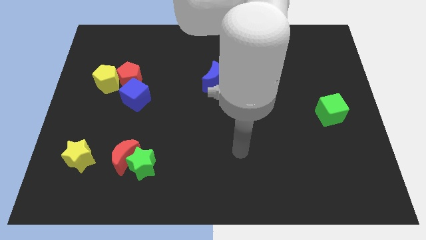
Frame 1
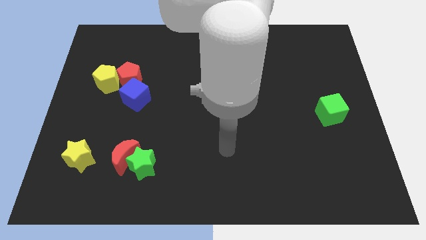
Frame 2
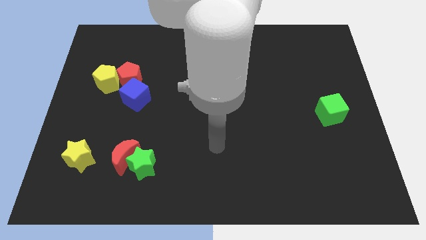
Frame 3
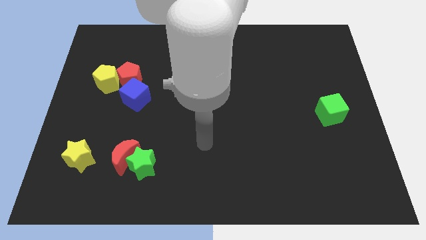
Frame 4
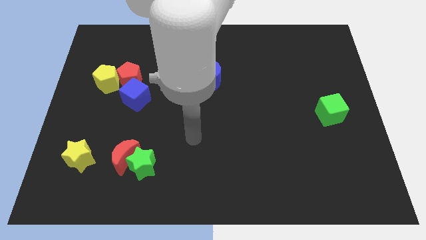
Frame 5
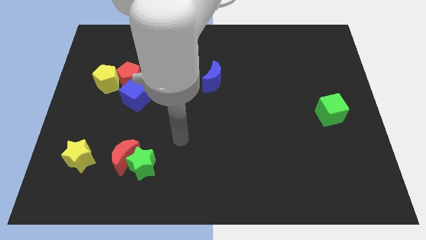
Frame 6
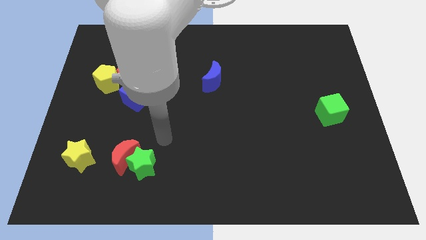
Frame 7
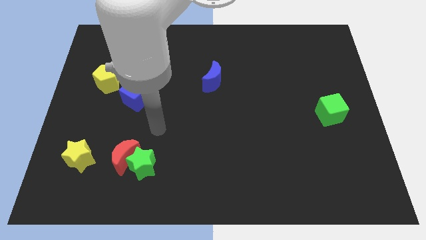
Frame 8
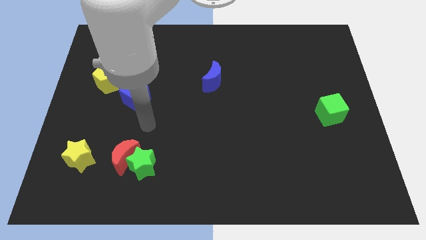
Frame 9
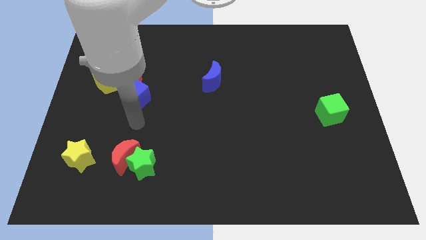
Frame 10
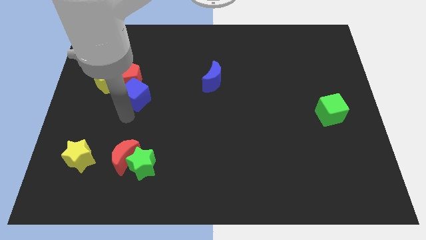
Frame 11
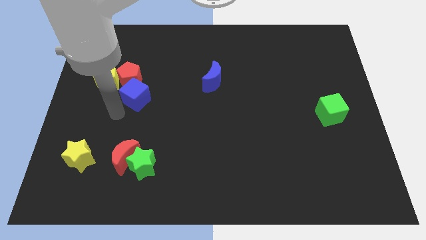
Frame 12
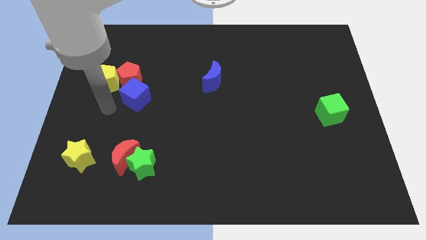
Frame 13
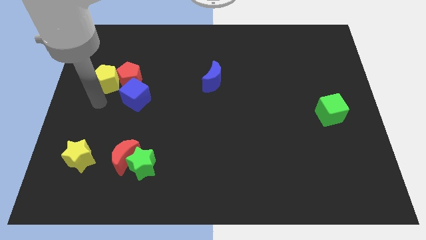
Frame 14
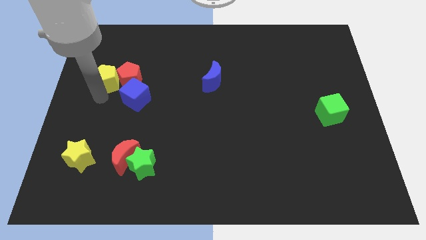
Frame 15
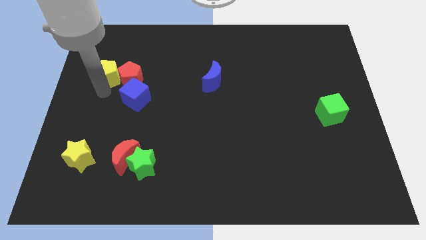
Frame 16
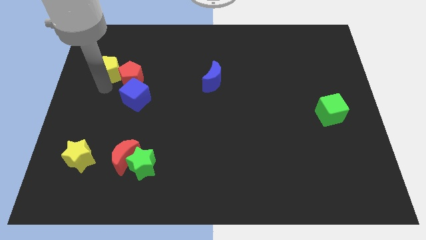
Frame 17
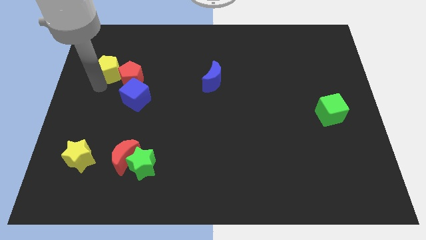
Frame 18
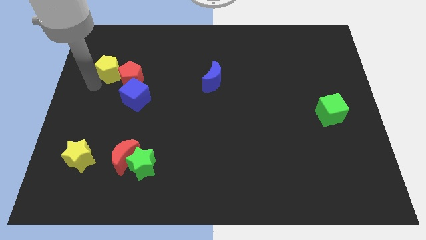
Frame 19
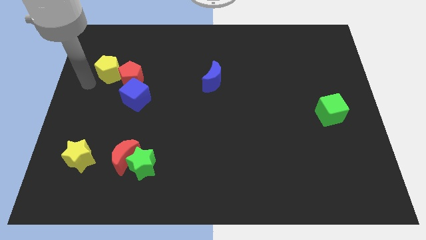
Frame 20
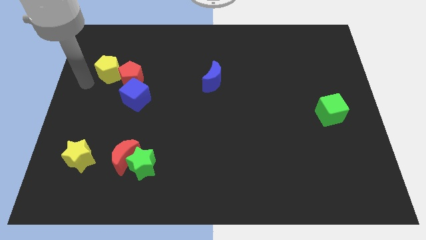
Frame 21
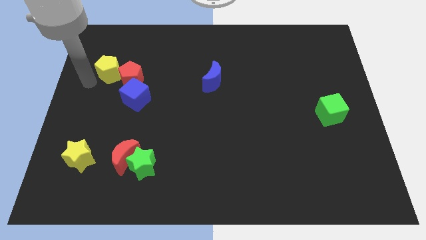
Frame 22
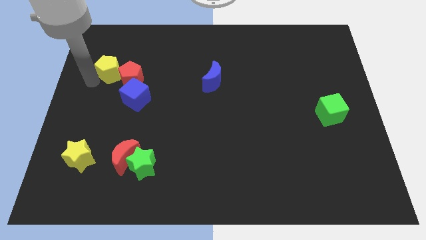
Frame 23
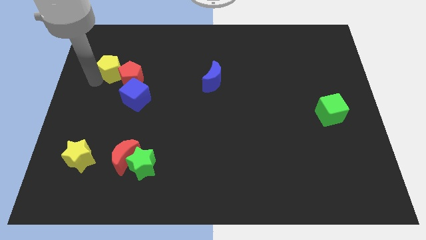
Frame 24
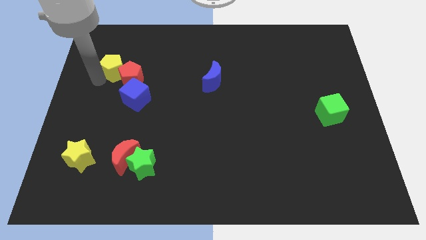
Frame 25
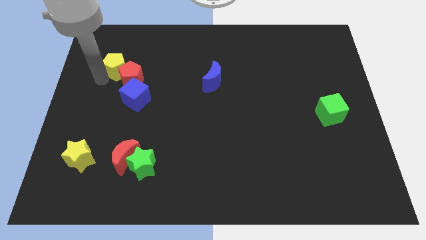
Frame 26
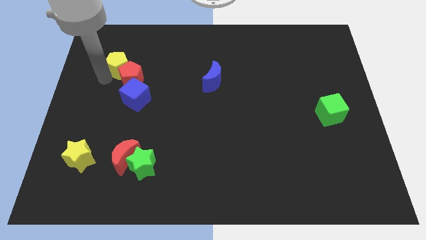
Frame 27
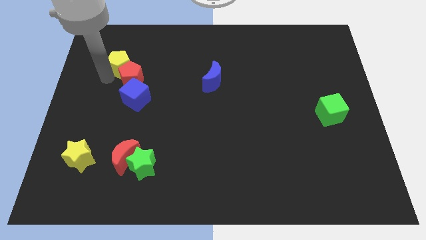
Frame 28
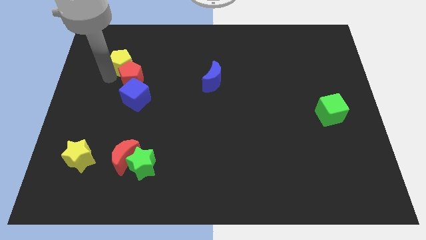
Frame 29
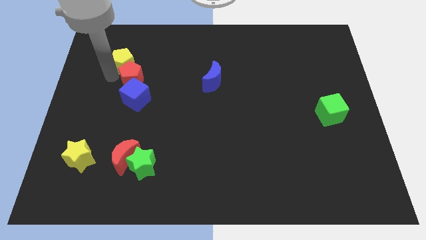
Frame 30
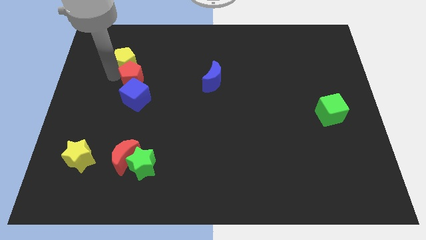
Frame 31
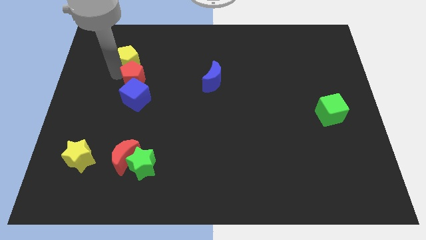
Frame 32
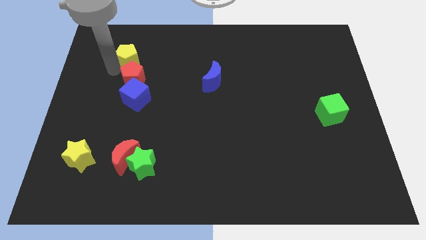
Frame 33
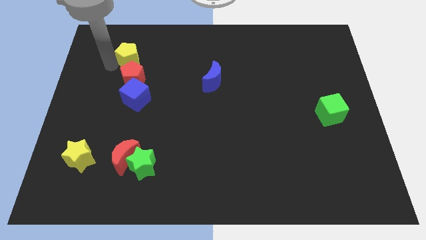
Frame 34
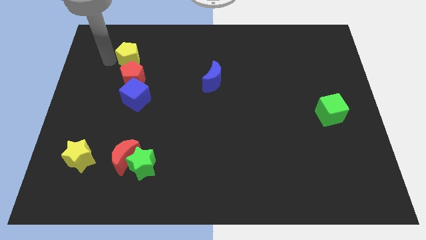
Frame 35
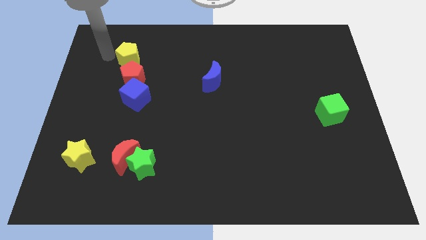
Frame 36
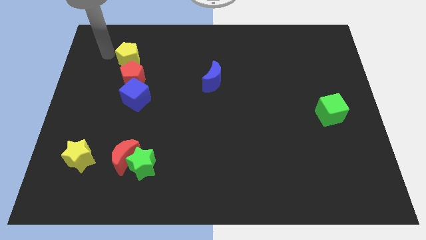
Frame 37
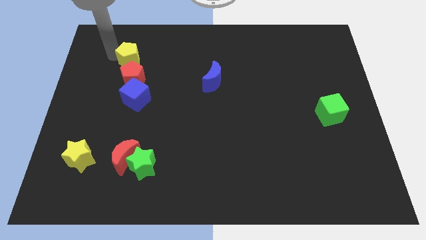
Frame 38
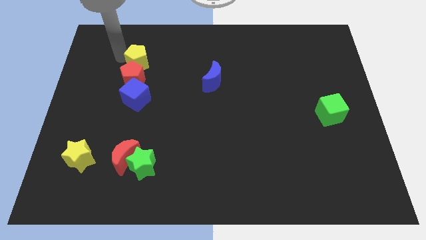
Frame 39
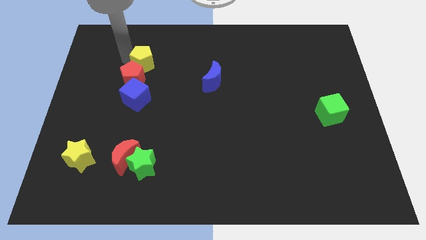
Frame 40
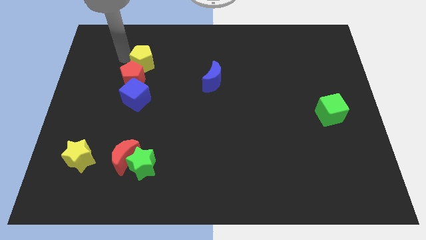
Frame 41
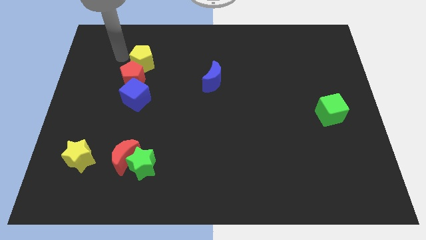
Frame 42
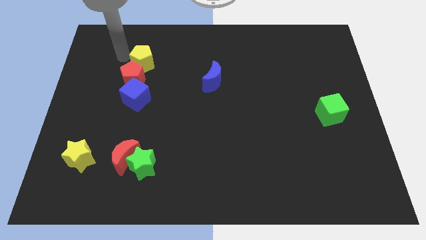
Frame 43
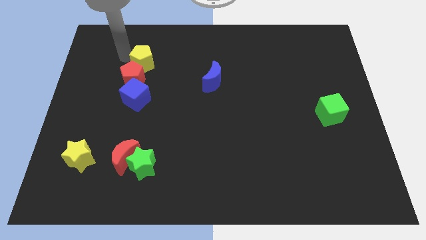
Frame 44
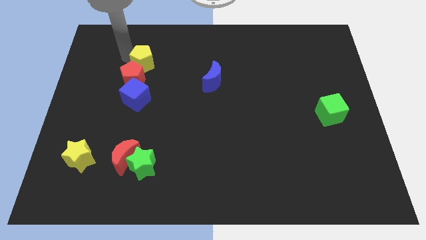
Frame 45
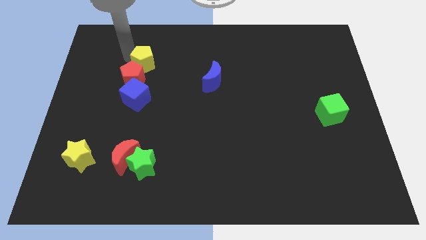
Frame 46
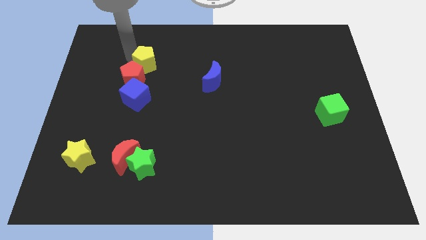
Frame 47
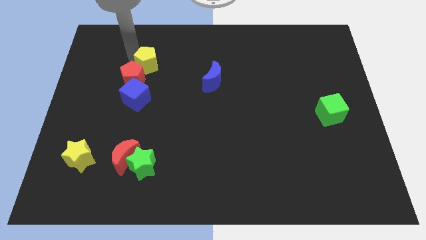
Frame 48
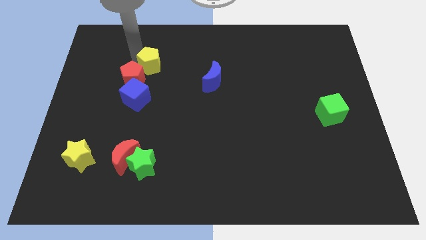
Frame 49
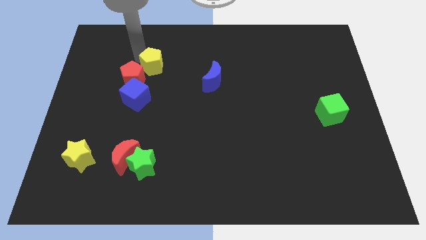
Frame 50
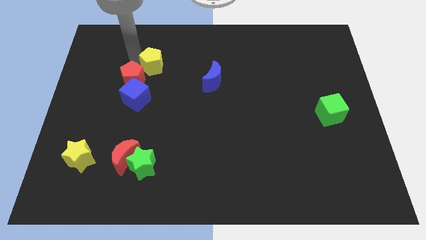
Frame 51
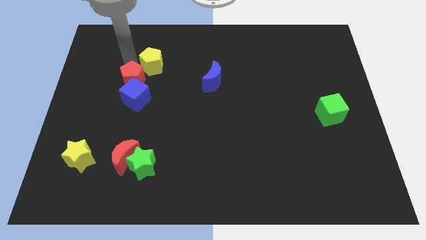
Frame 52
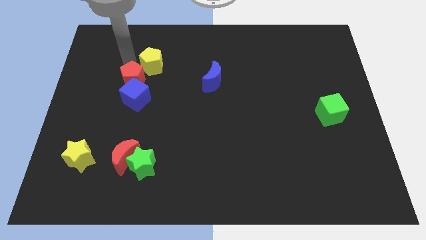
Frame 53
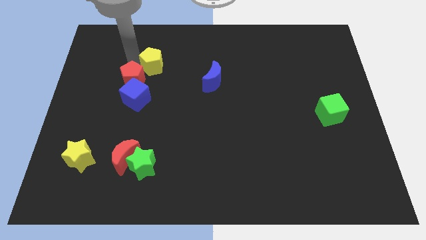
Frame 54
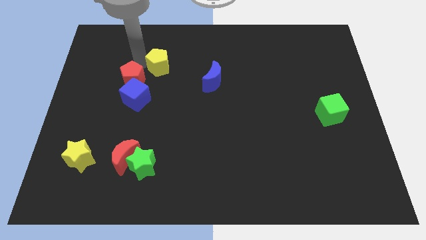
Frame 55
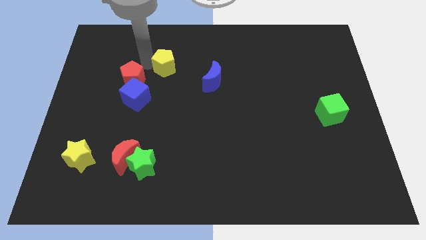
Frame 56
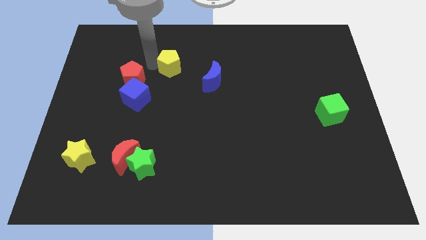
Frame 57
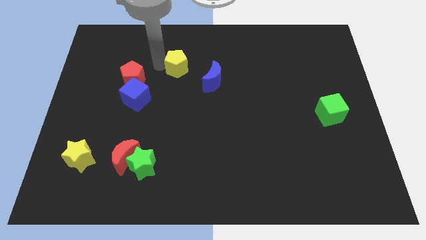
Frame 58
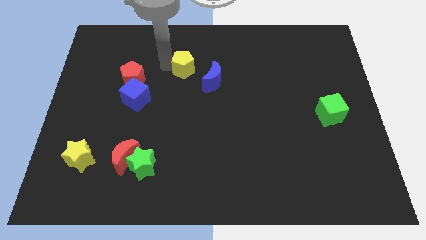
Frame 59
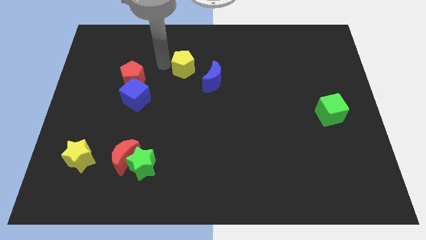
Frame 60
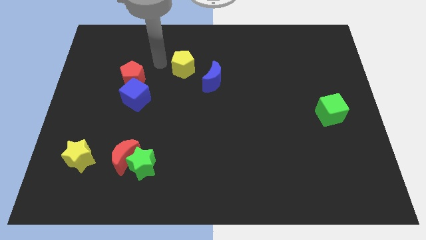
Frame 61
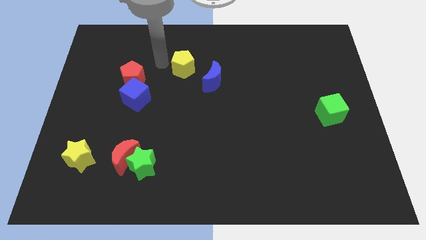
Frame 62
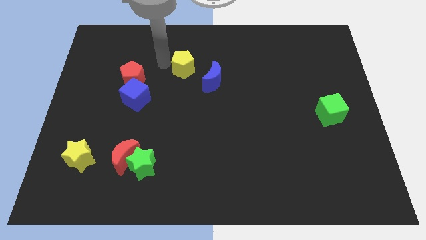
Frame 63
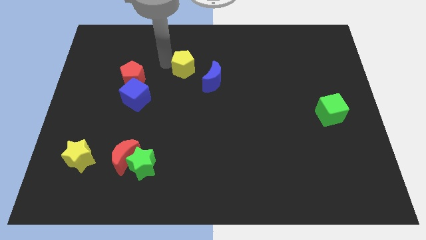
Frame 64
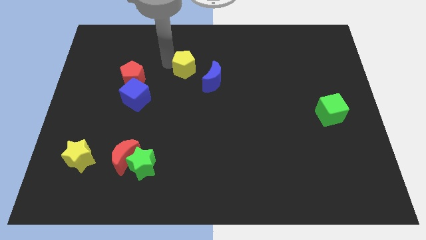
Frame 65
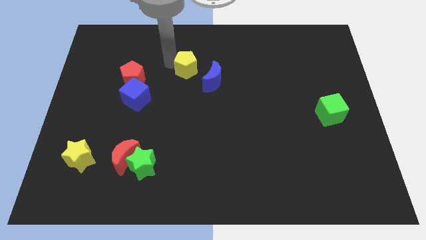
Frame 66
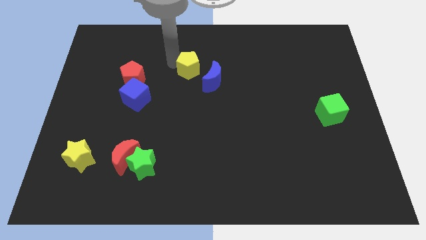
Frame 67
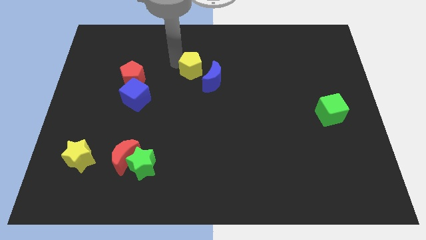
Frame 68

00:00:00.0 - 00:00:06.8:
move the yellow pentagon right

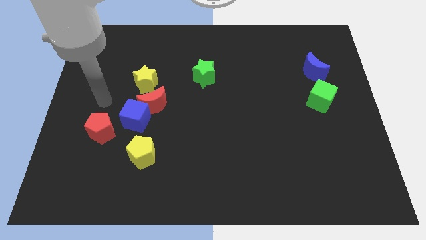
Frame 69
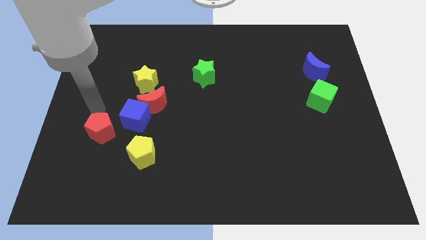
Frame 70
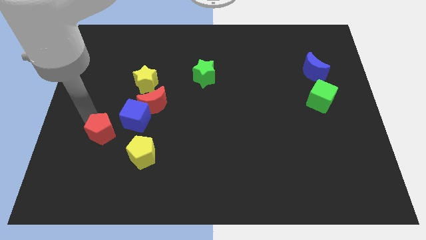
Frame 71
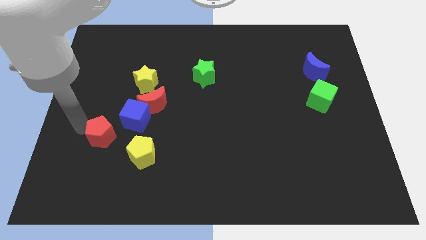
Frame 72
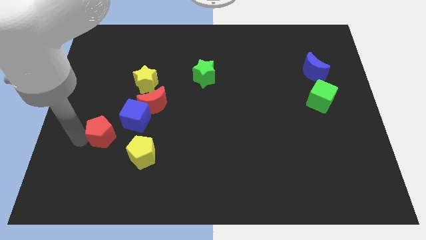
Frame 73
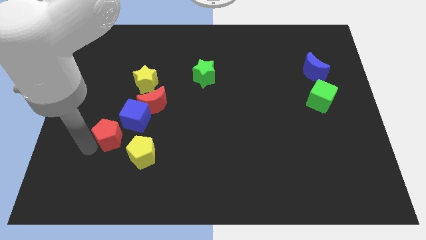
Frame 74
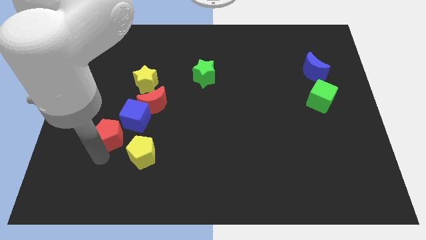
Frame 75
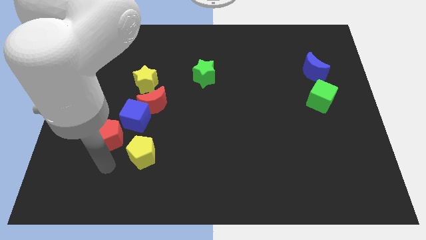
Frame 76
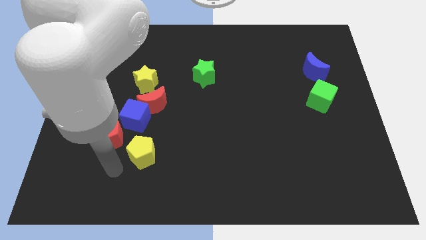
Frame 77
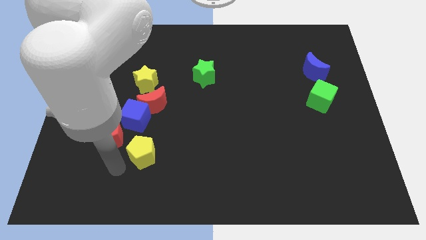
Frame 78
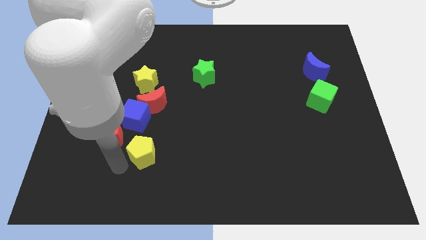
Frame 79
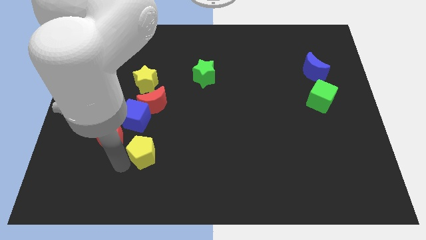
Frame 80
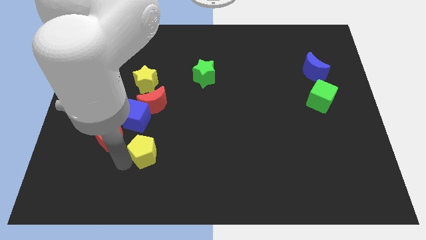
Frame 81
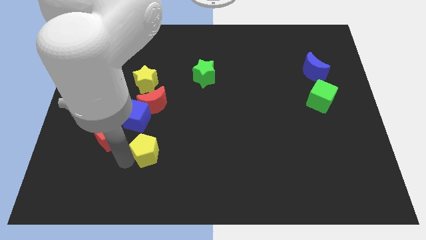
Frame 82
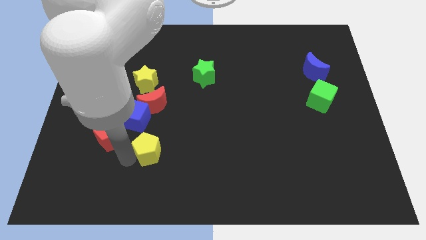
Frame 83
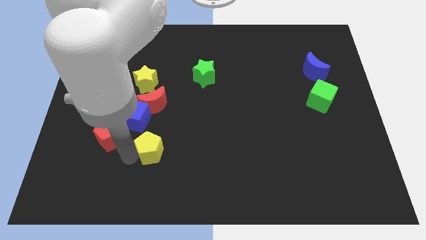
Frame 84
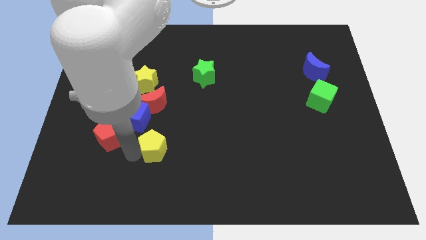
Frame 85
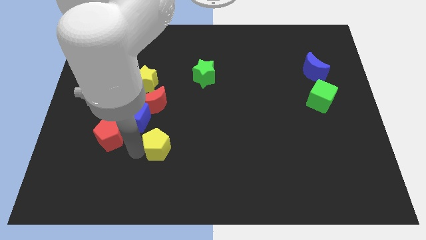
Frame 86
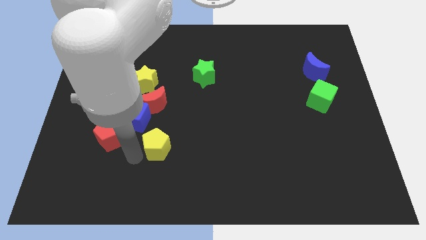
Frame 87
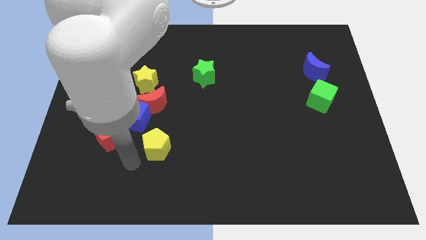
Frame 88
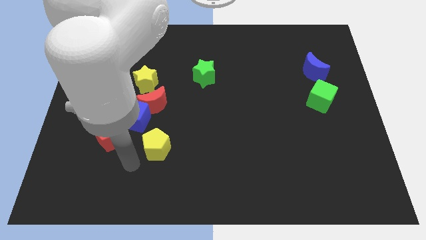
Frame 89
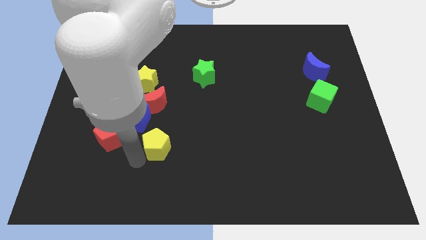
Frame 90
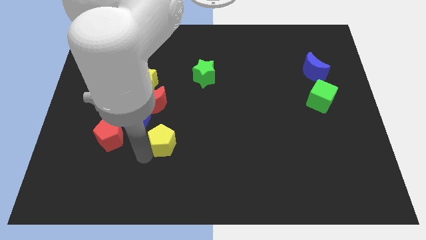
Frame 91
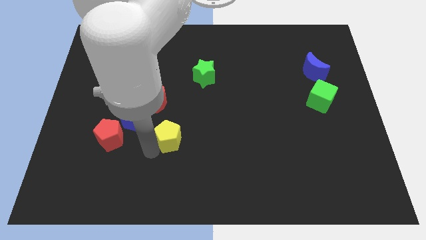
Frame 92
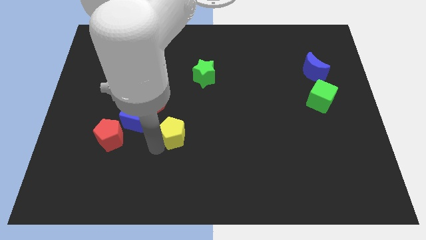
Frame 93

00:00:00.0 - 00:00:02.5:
slide the yellow pentagon upwards and to the right diagonally somewhat
